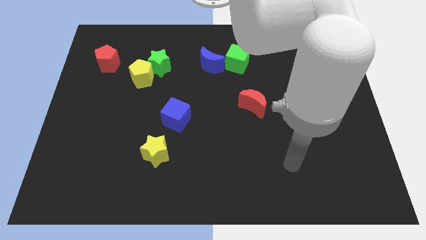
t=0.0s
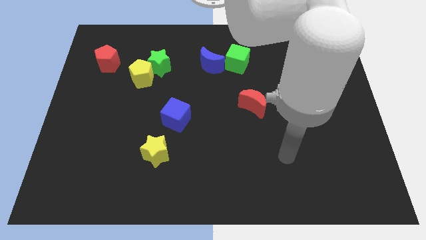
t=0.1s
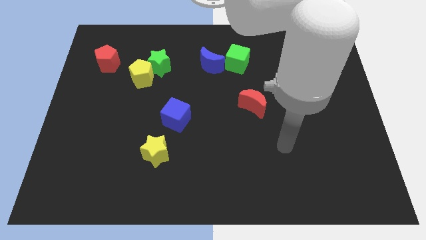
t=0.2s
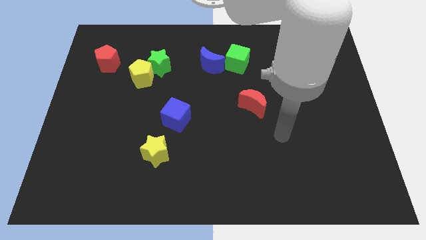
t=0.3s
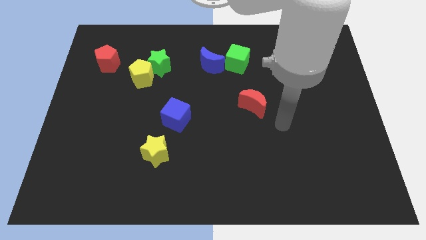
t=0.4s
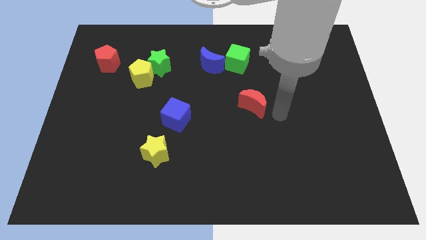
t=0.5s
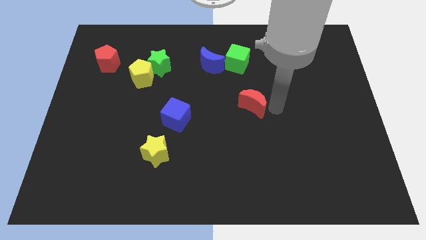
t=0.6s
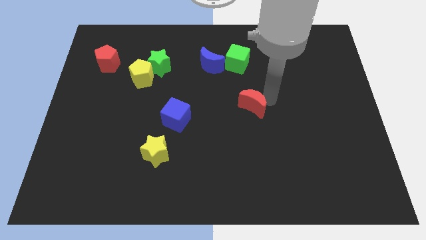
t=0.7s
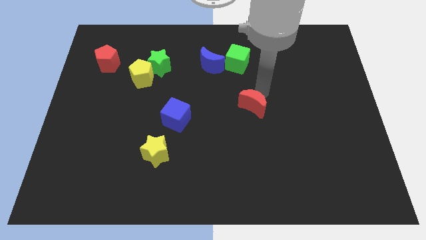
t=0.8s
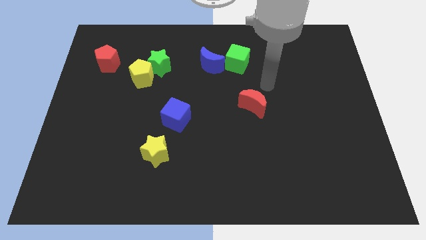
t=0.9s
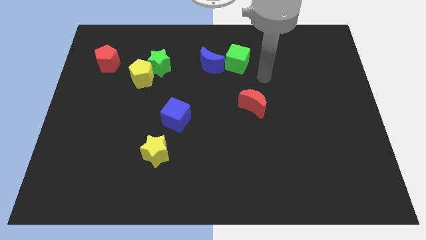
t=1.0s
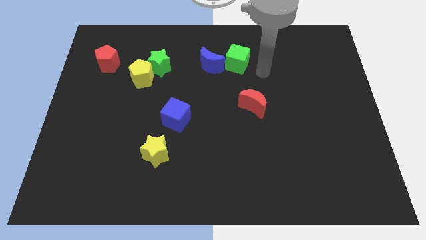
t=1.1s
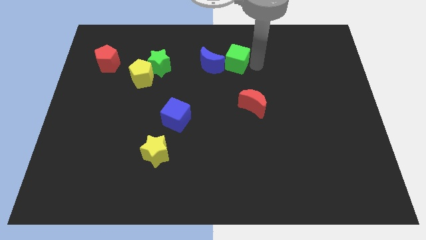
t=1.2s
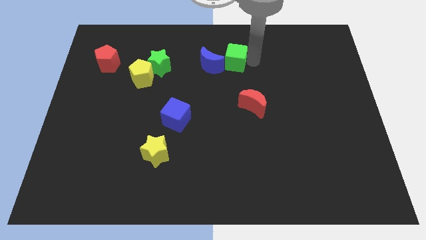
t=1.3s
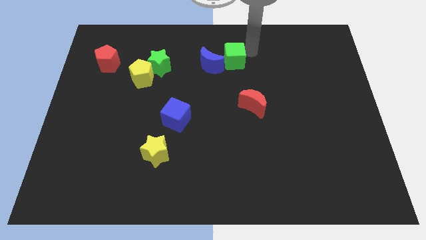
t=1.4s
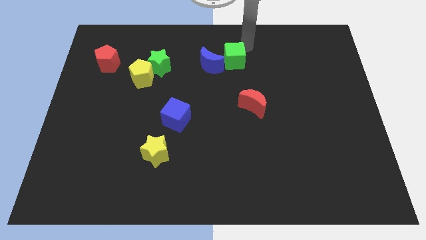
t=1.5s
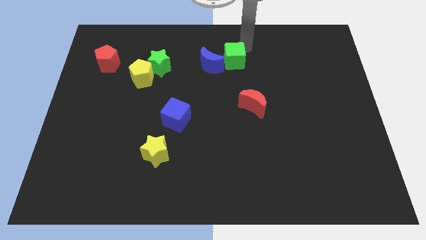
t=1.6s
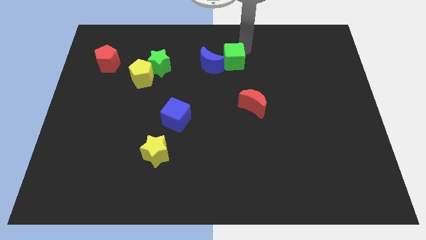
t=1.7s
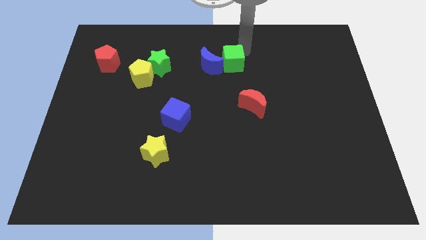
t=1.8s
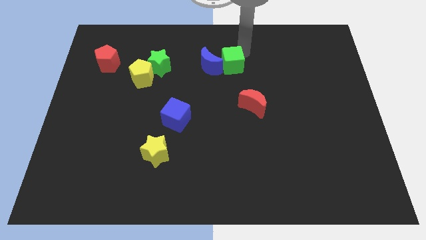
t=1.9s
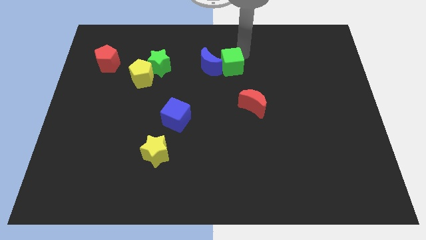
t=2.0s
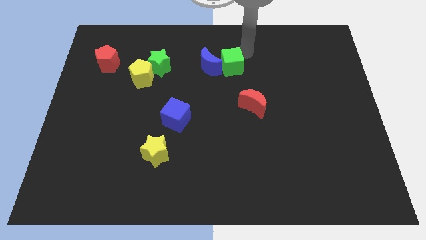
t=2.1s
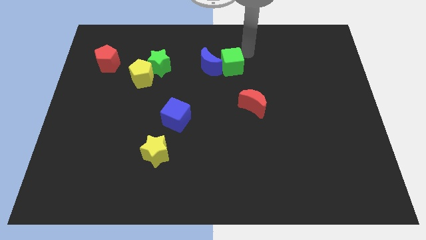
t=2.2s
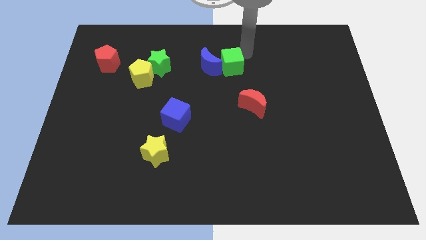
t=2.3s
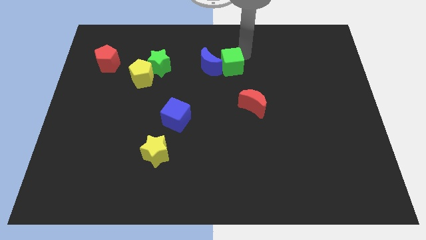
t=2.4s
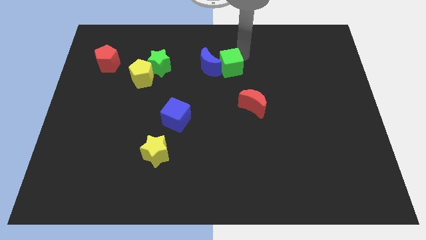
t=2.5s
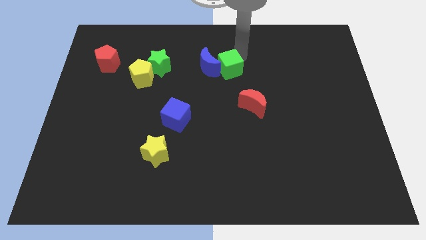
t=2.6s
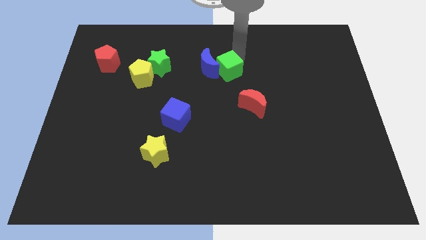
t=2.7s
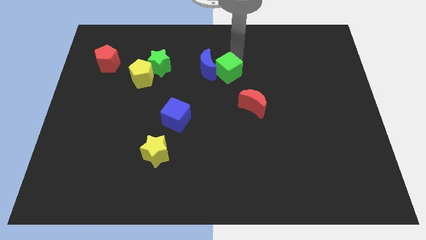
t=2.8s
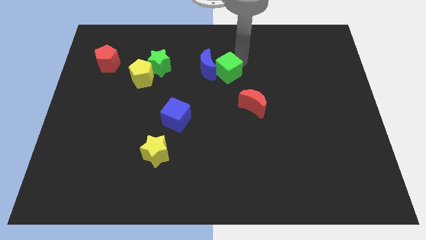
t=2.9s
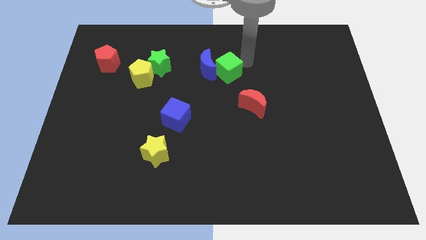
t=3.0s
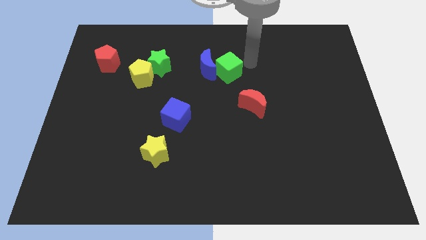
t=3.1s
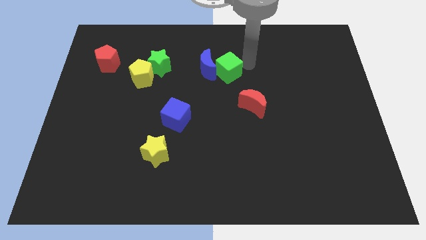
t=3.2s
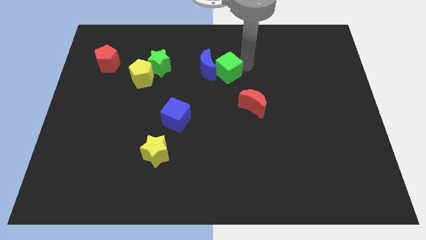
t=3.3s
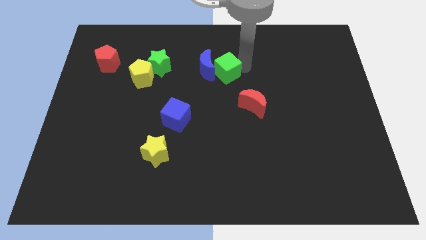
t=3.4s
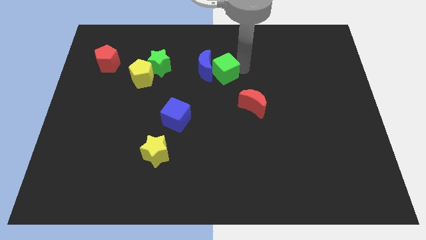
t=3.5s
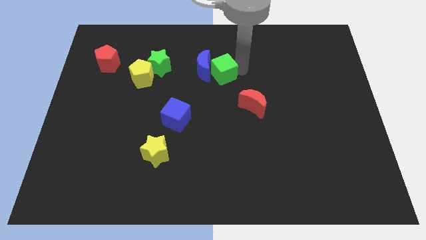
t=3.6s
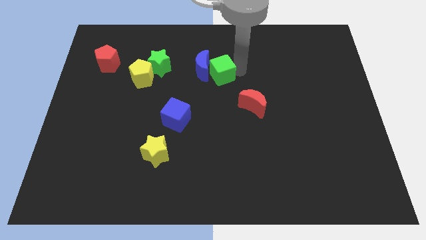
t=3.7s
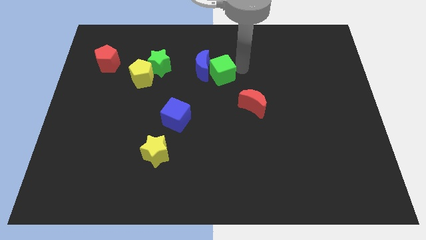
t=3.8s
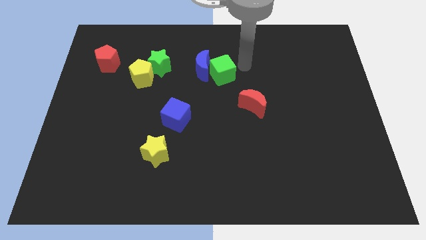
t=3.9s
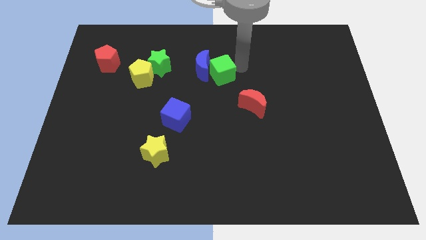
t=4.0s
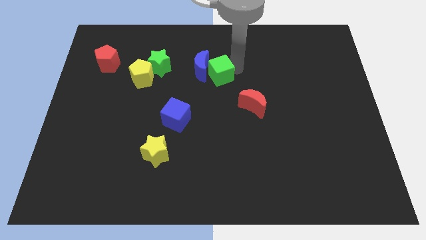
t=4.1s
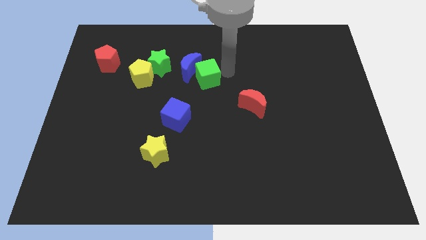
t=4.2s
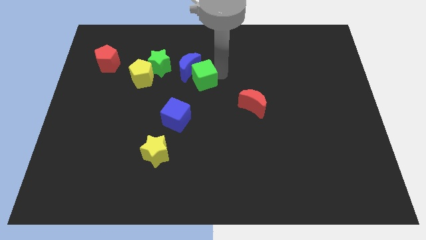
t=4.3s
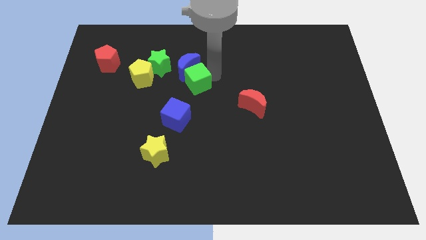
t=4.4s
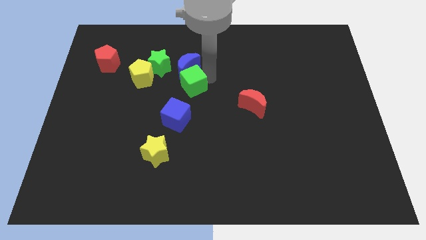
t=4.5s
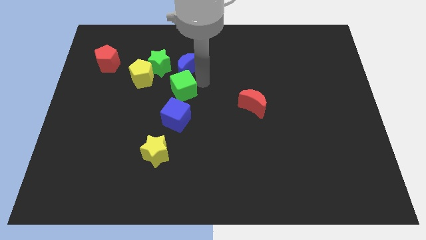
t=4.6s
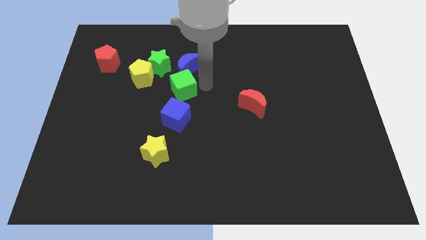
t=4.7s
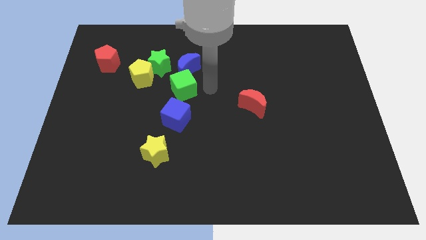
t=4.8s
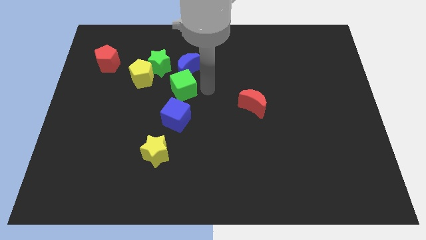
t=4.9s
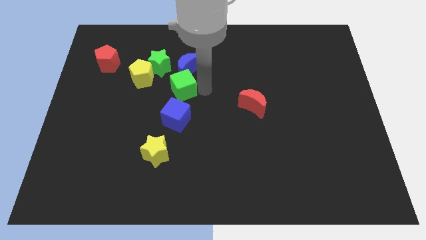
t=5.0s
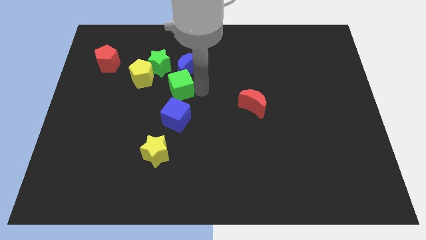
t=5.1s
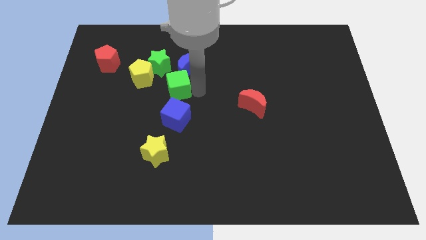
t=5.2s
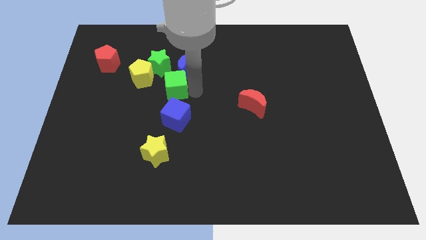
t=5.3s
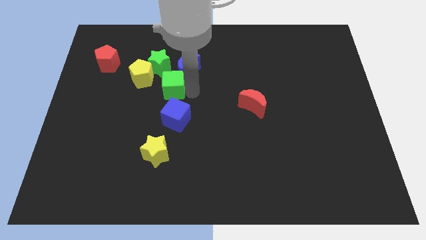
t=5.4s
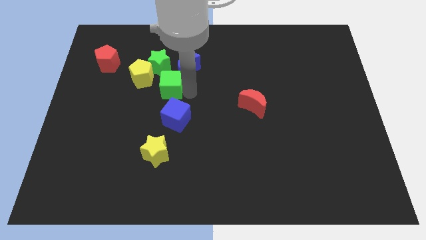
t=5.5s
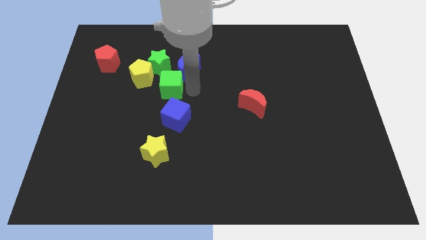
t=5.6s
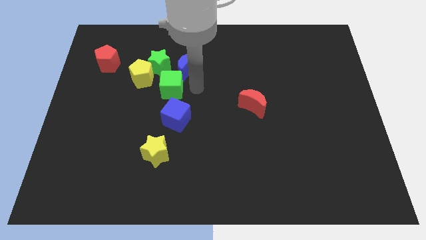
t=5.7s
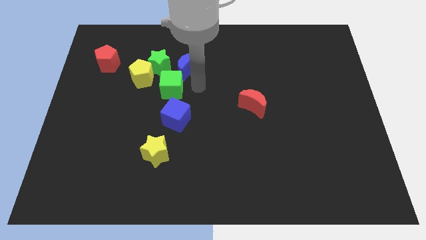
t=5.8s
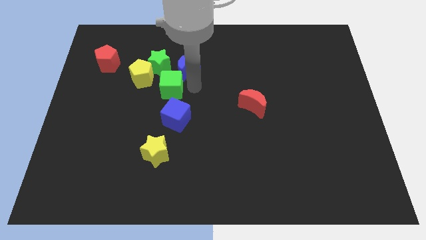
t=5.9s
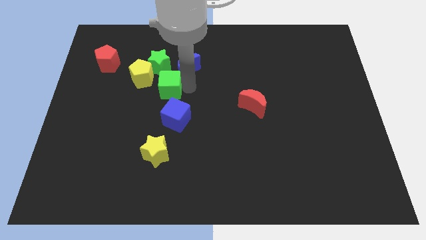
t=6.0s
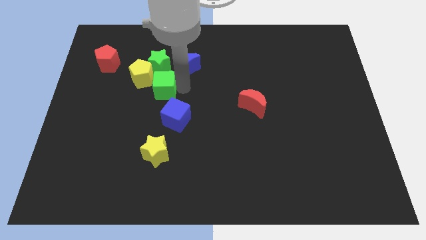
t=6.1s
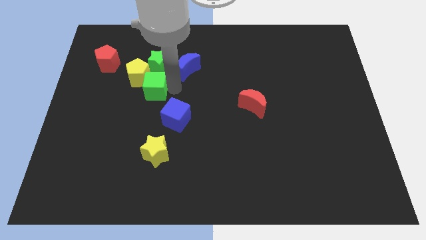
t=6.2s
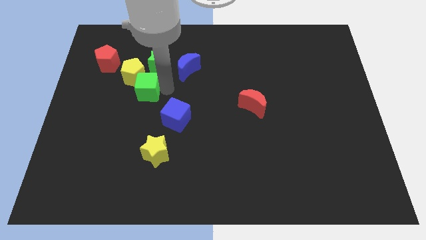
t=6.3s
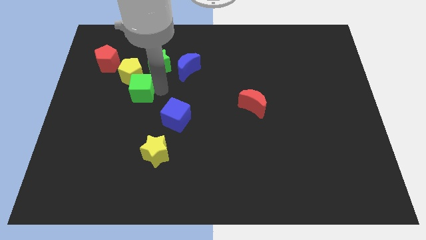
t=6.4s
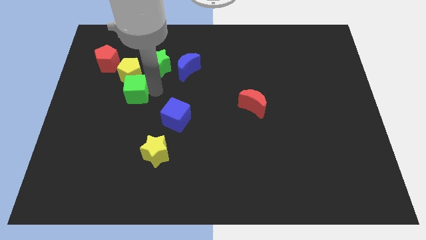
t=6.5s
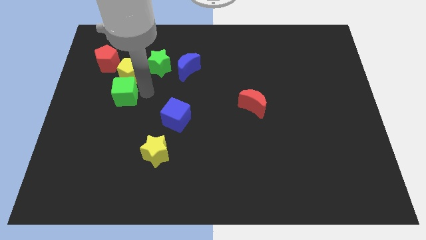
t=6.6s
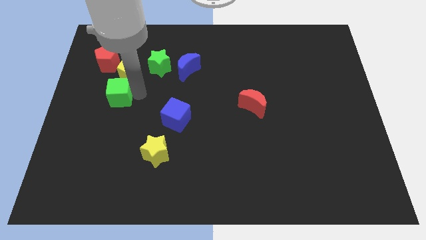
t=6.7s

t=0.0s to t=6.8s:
move the green cube below the red pentagon
